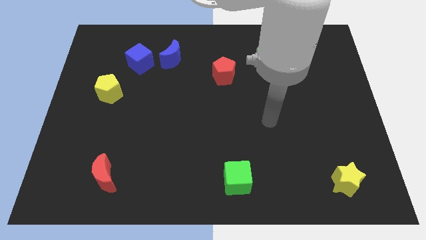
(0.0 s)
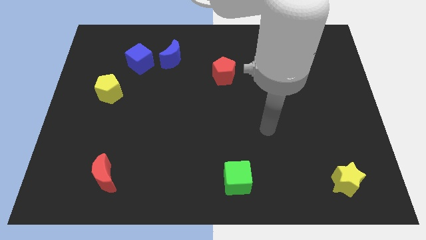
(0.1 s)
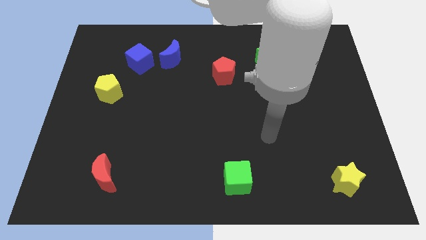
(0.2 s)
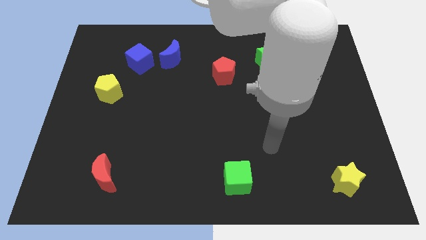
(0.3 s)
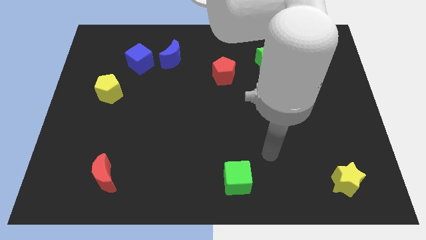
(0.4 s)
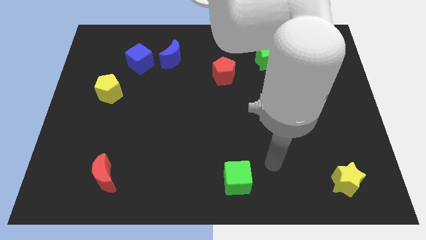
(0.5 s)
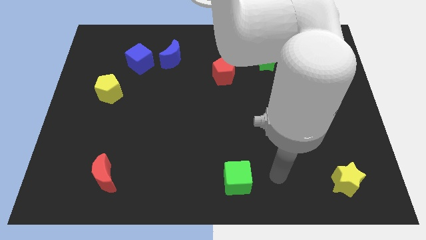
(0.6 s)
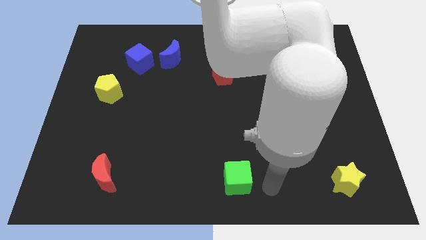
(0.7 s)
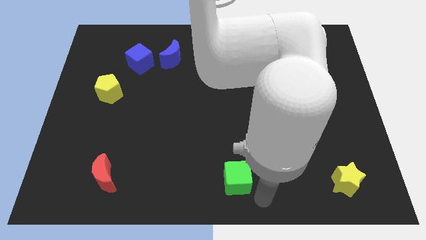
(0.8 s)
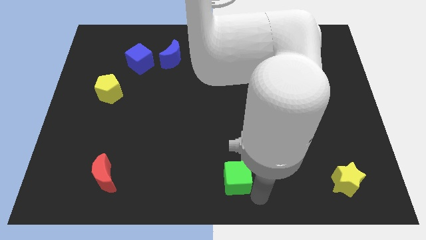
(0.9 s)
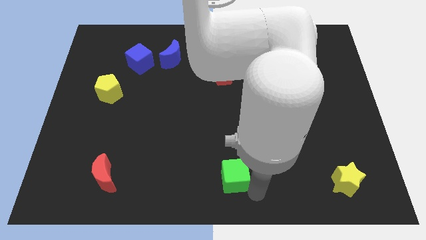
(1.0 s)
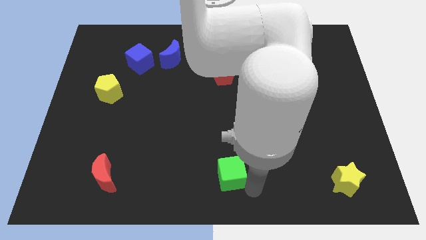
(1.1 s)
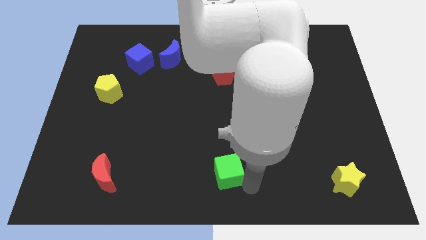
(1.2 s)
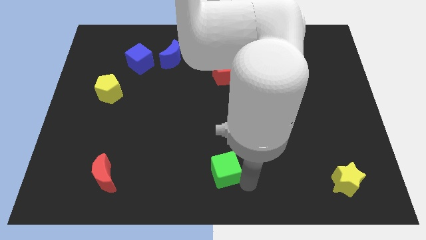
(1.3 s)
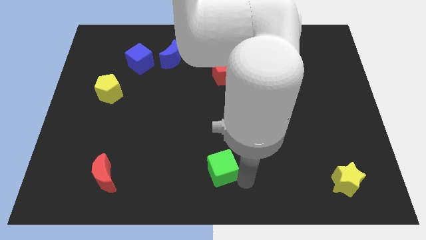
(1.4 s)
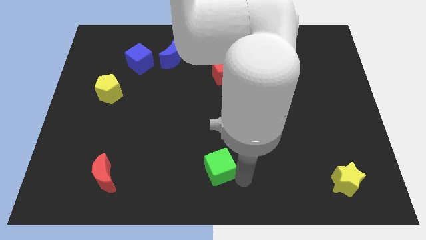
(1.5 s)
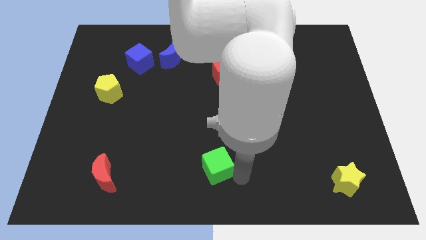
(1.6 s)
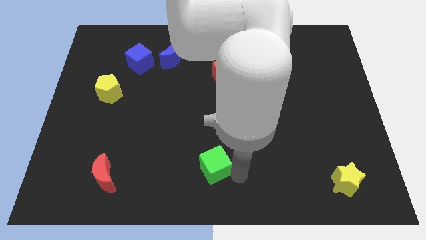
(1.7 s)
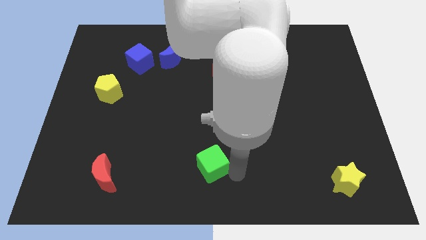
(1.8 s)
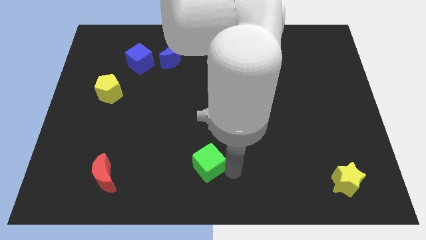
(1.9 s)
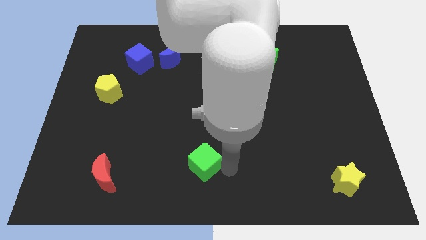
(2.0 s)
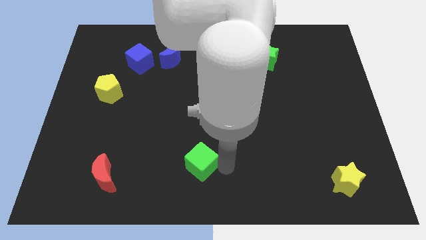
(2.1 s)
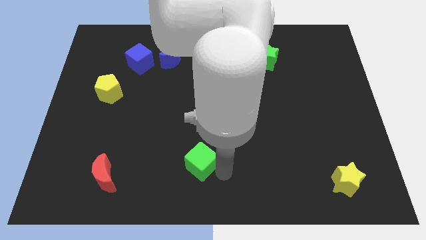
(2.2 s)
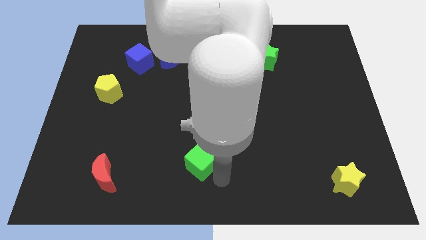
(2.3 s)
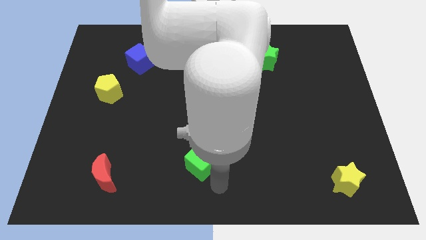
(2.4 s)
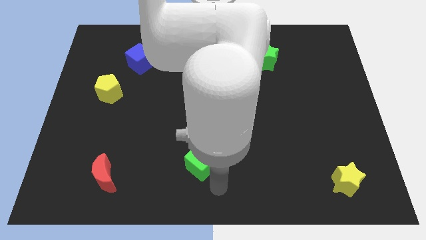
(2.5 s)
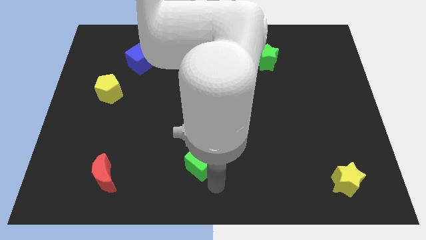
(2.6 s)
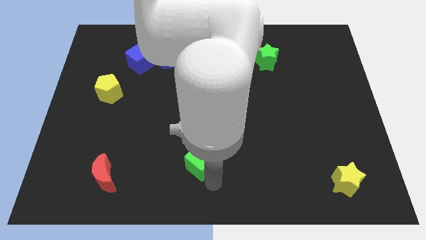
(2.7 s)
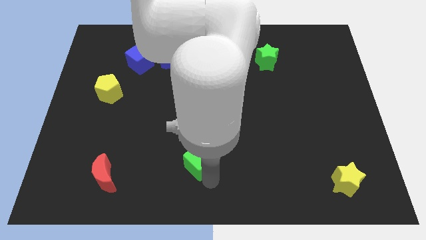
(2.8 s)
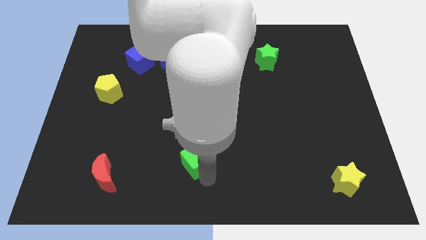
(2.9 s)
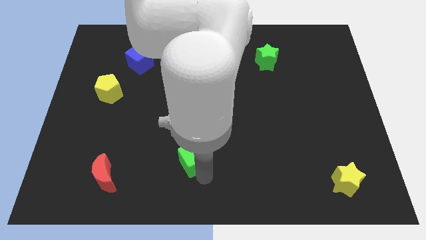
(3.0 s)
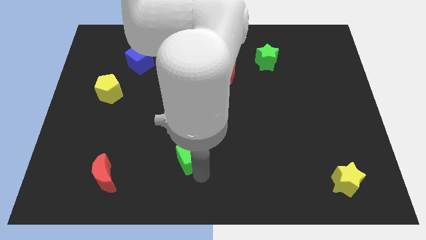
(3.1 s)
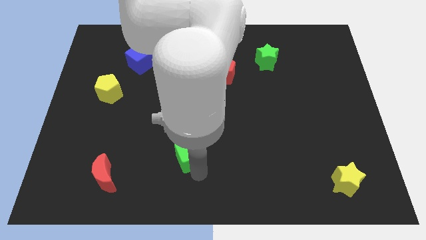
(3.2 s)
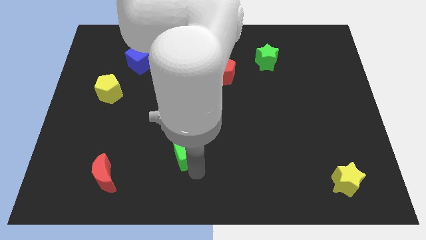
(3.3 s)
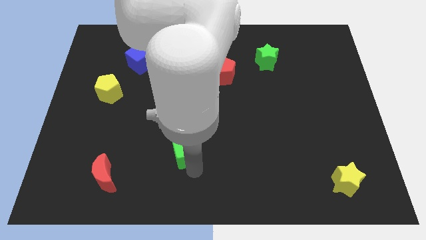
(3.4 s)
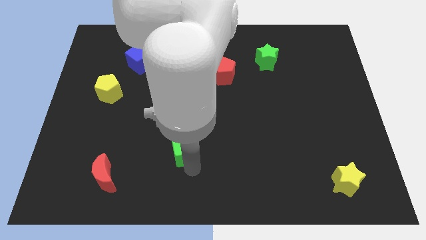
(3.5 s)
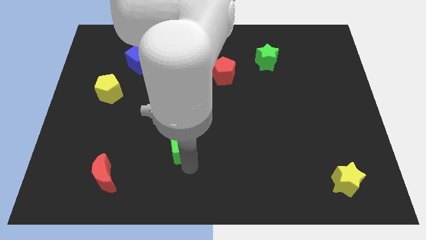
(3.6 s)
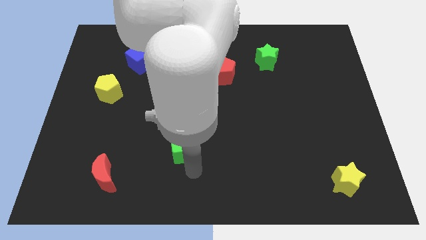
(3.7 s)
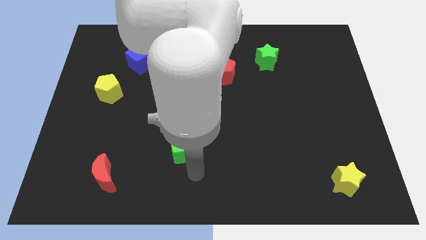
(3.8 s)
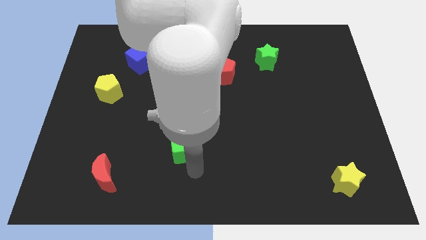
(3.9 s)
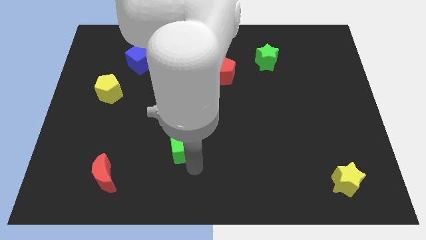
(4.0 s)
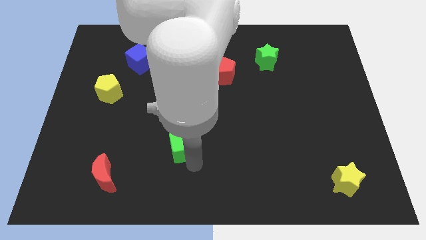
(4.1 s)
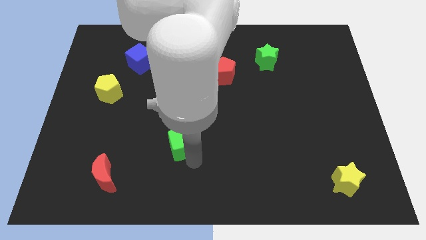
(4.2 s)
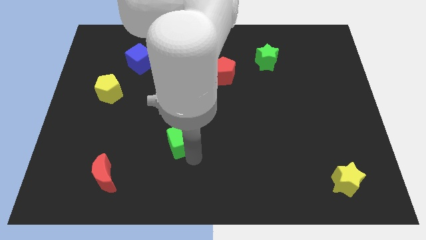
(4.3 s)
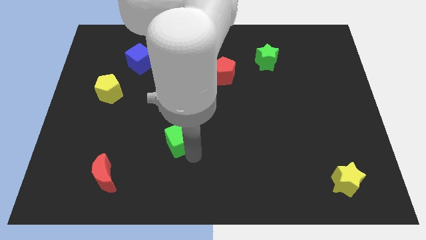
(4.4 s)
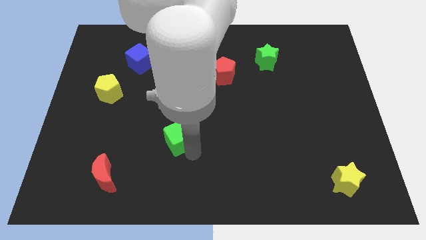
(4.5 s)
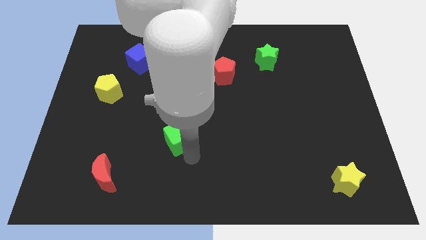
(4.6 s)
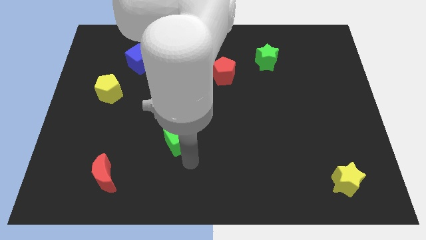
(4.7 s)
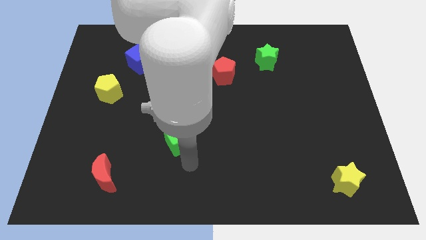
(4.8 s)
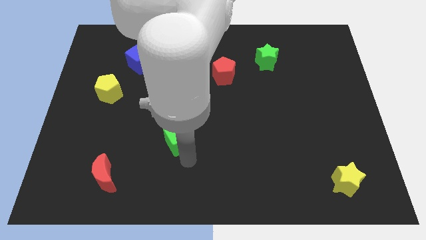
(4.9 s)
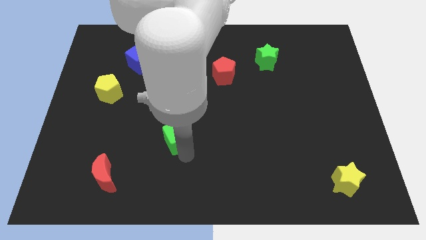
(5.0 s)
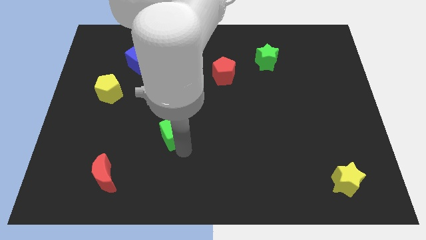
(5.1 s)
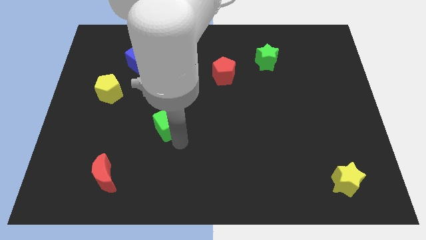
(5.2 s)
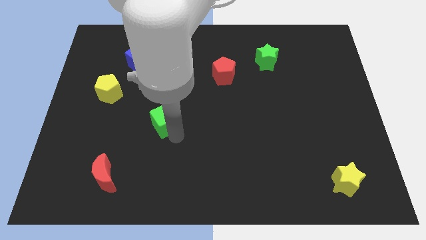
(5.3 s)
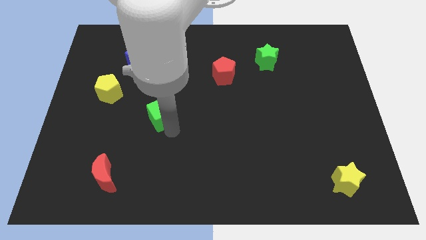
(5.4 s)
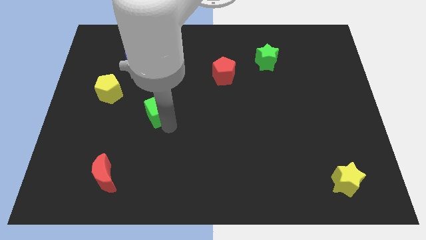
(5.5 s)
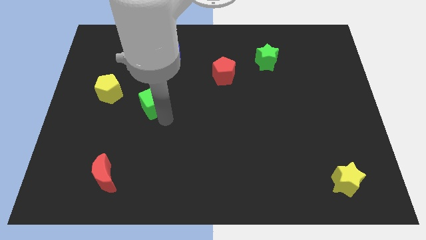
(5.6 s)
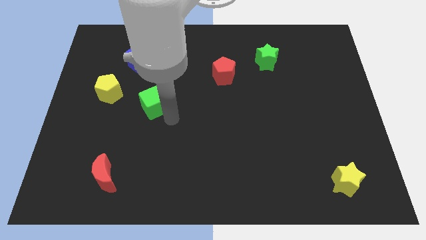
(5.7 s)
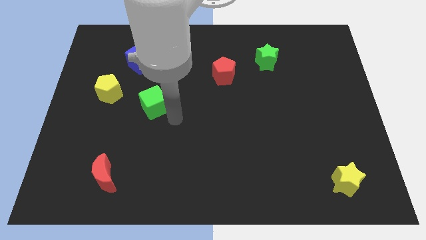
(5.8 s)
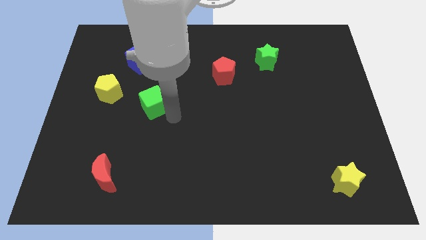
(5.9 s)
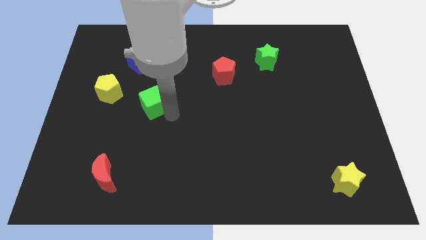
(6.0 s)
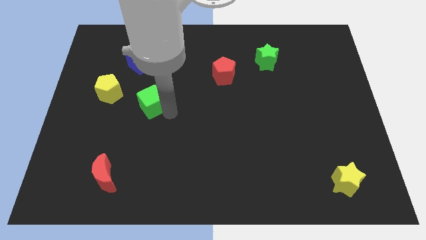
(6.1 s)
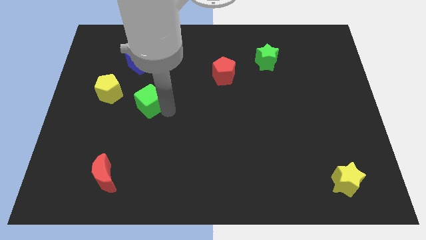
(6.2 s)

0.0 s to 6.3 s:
move the green cube below the blue cube

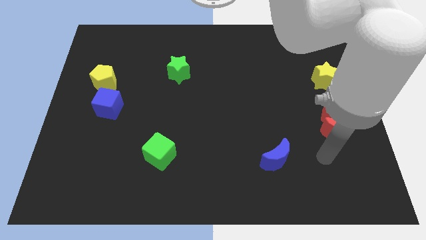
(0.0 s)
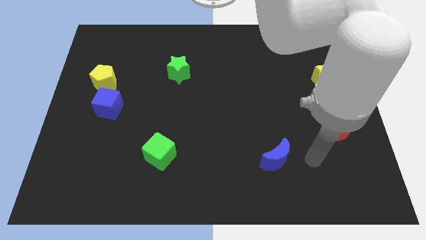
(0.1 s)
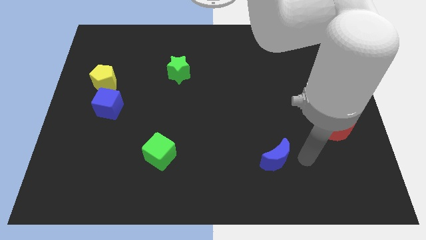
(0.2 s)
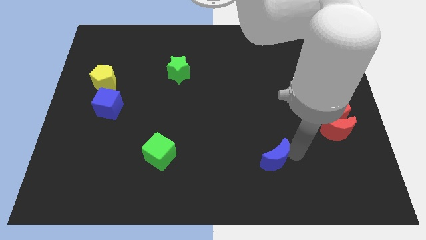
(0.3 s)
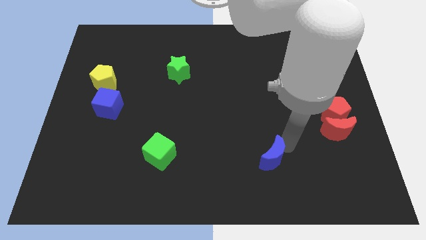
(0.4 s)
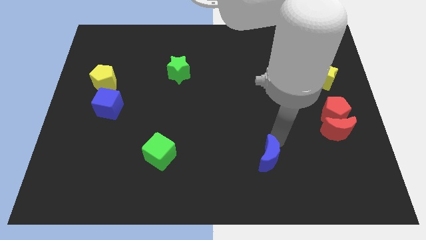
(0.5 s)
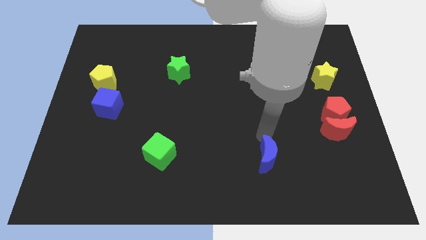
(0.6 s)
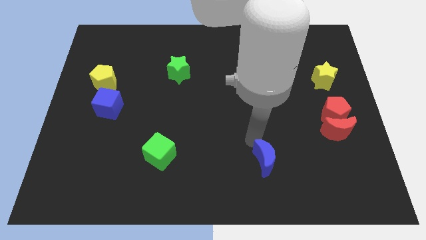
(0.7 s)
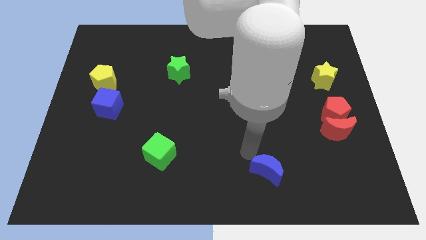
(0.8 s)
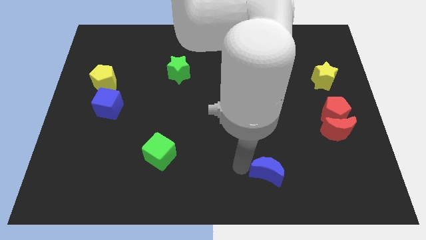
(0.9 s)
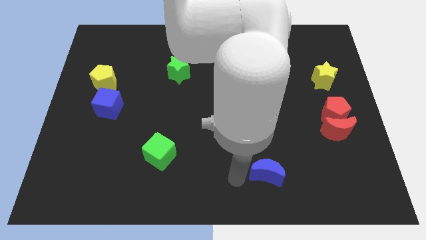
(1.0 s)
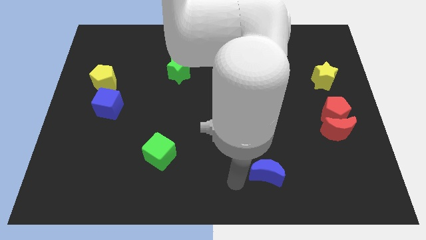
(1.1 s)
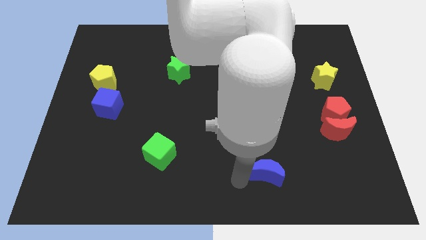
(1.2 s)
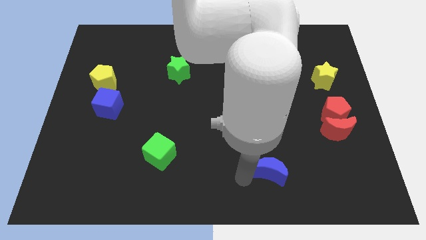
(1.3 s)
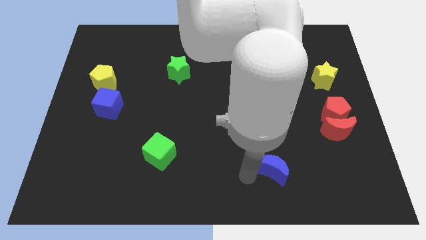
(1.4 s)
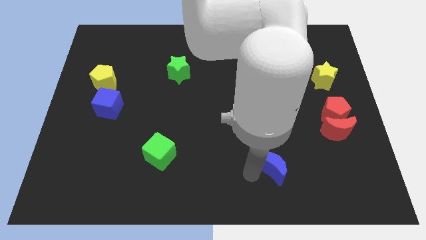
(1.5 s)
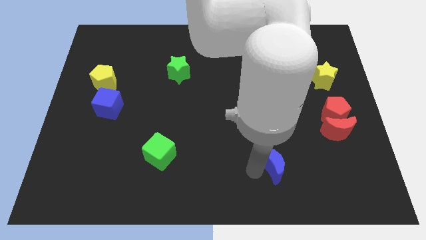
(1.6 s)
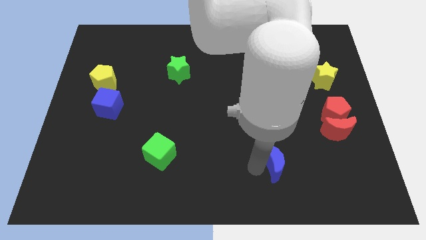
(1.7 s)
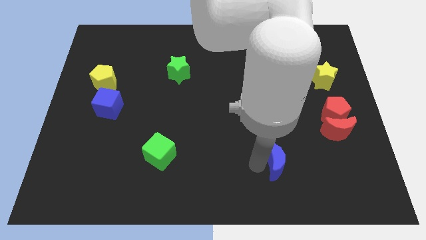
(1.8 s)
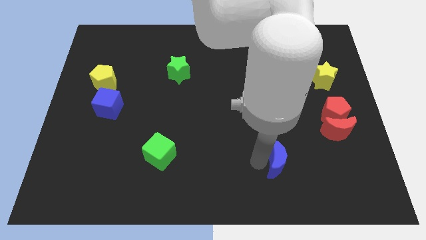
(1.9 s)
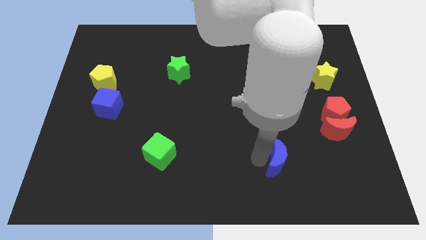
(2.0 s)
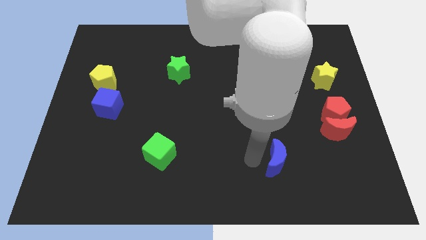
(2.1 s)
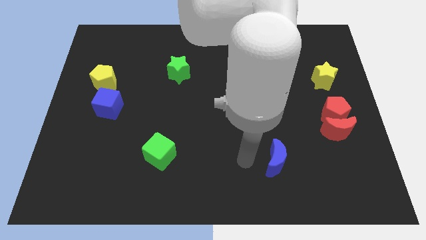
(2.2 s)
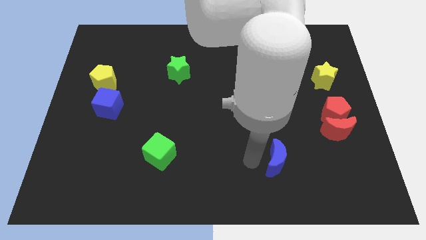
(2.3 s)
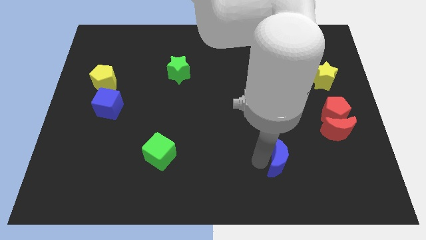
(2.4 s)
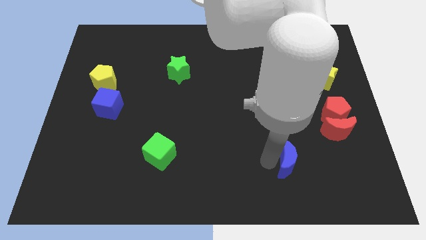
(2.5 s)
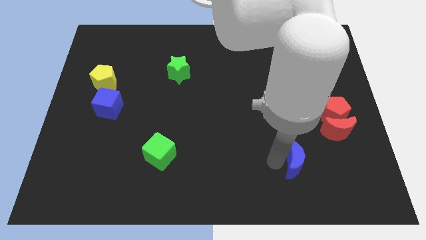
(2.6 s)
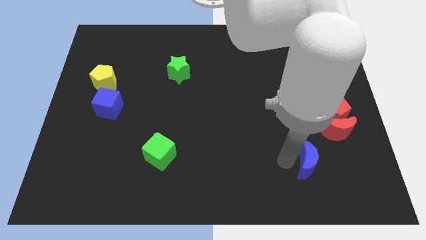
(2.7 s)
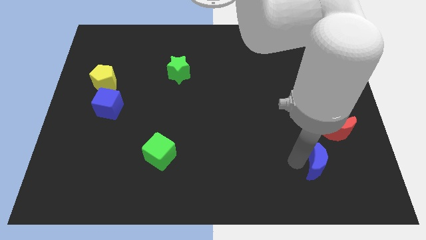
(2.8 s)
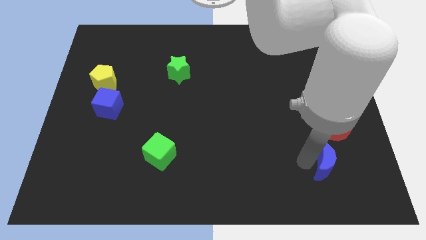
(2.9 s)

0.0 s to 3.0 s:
move the blue moon to the bottom of the red moon
